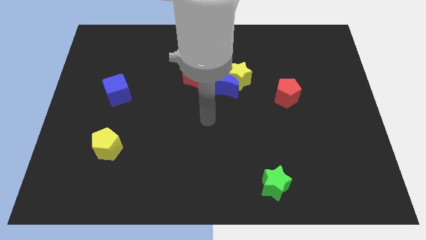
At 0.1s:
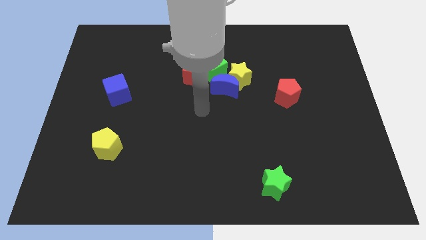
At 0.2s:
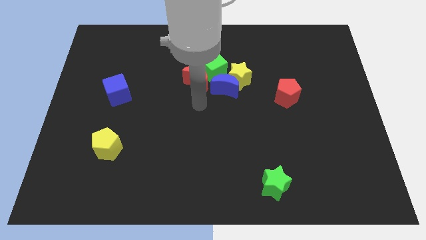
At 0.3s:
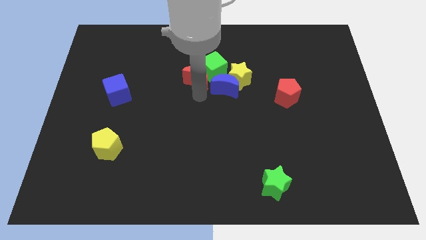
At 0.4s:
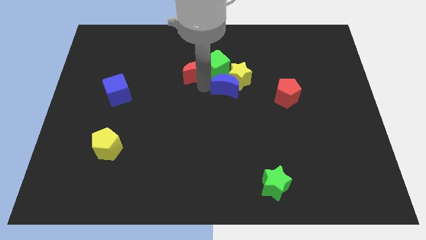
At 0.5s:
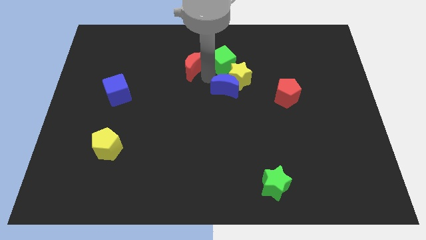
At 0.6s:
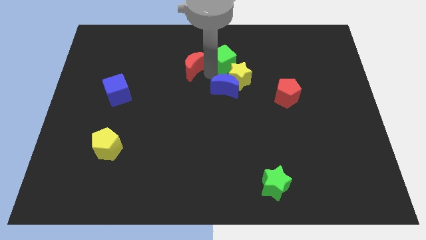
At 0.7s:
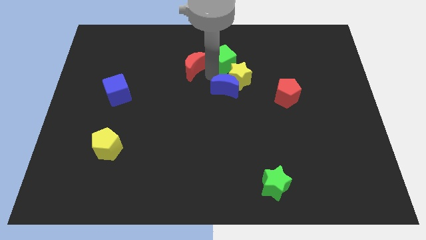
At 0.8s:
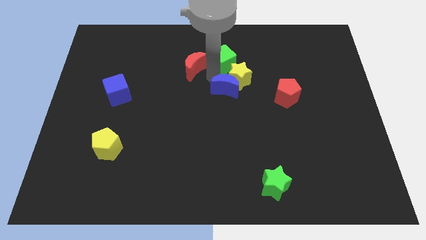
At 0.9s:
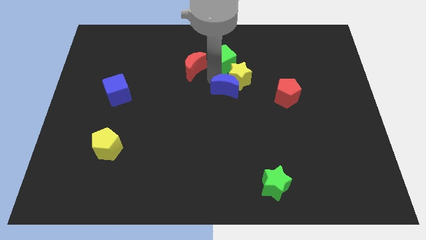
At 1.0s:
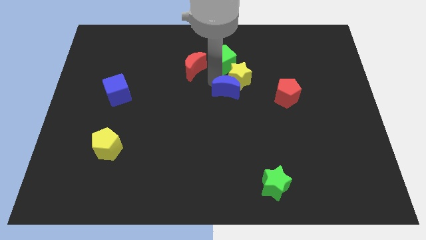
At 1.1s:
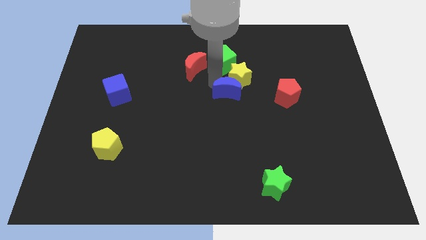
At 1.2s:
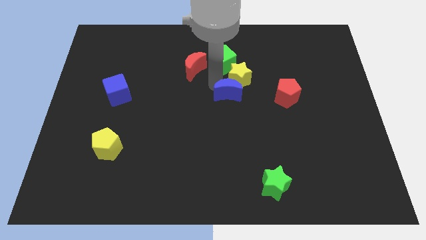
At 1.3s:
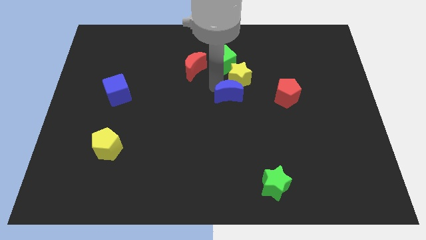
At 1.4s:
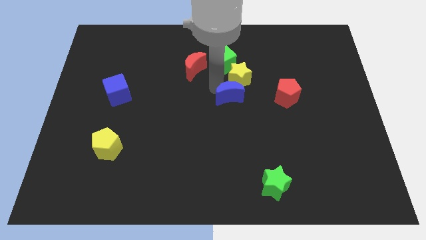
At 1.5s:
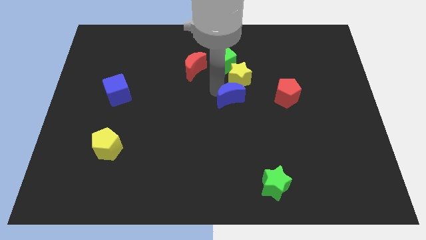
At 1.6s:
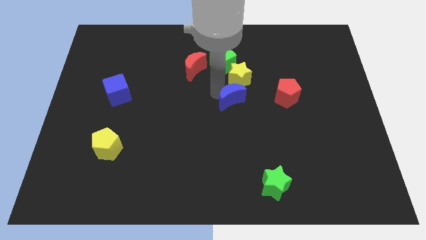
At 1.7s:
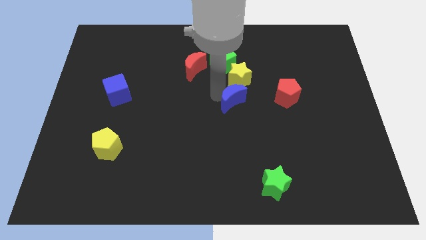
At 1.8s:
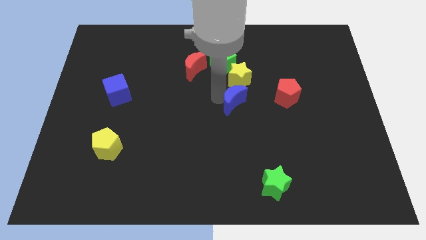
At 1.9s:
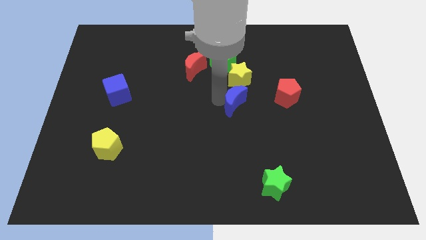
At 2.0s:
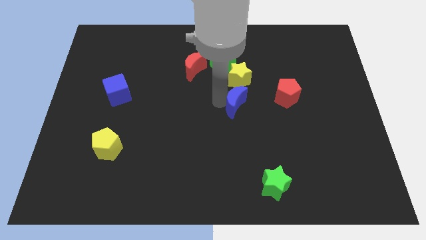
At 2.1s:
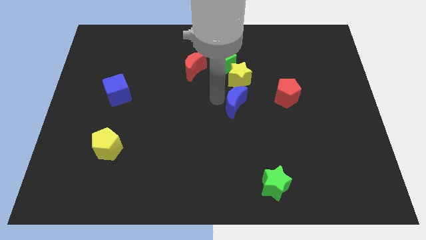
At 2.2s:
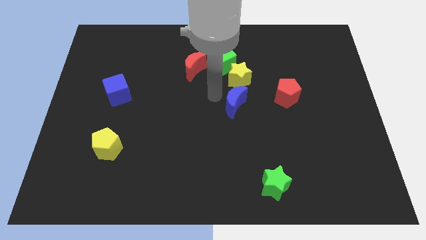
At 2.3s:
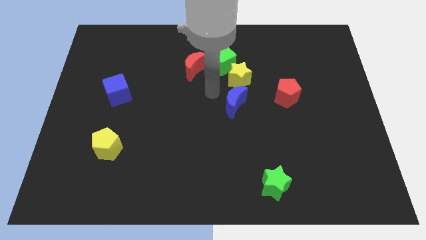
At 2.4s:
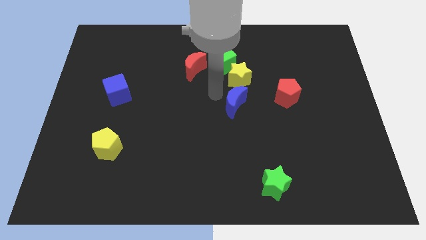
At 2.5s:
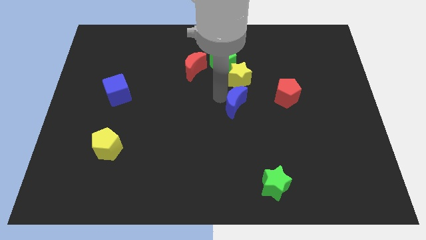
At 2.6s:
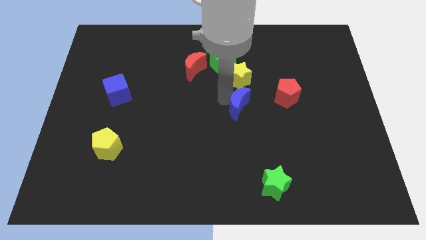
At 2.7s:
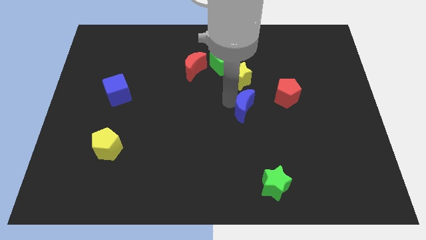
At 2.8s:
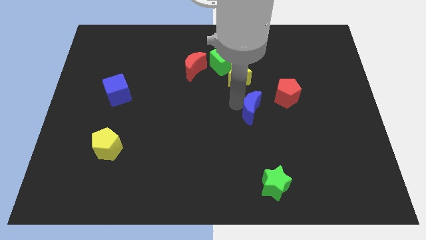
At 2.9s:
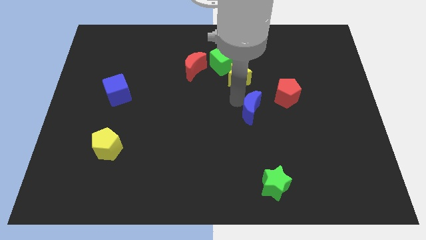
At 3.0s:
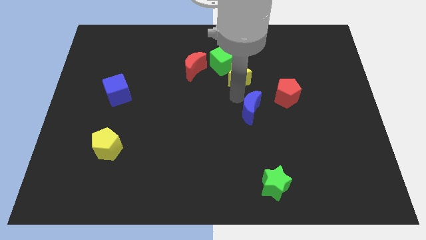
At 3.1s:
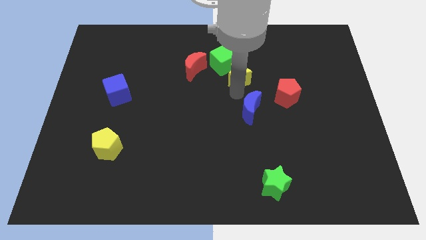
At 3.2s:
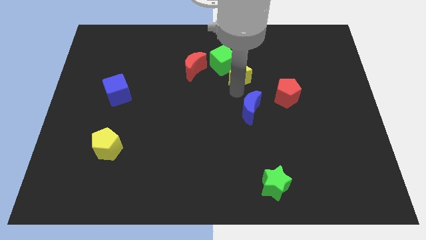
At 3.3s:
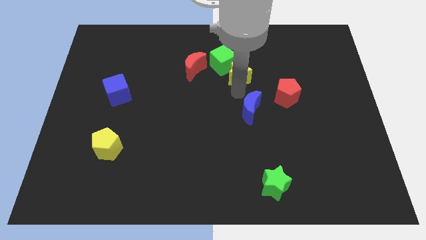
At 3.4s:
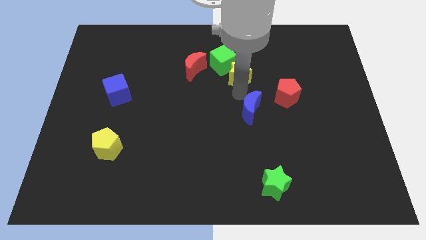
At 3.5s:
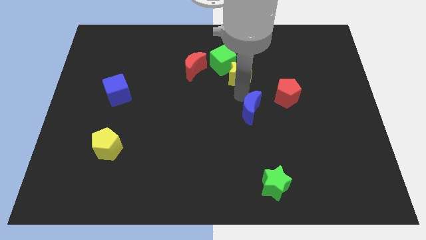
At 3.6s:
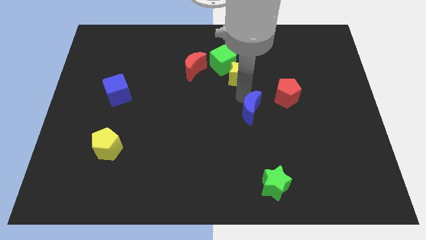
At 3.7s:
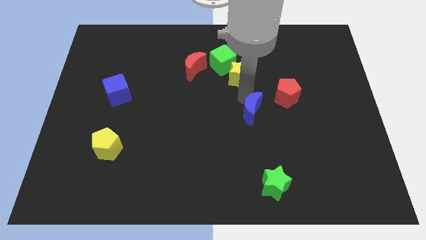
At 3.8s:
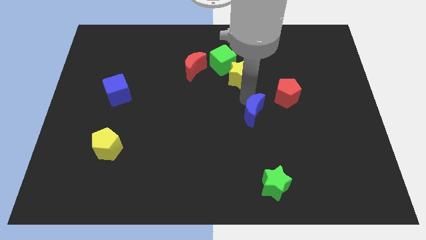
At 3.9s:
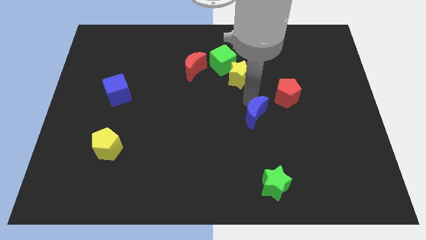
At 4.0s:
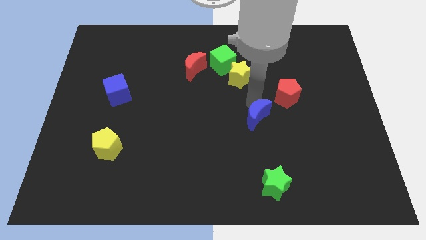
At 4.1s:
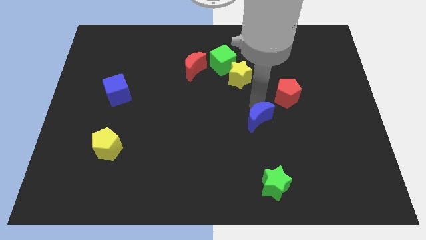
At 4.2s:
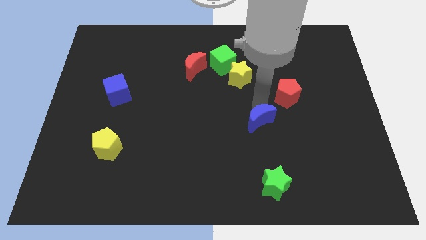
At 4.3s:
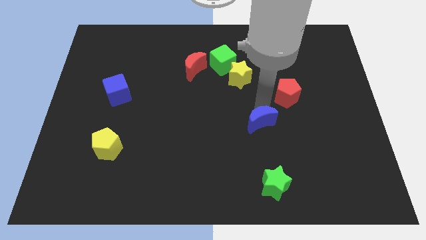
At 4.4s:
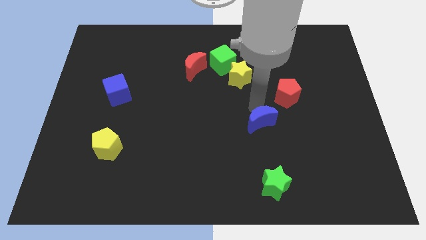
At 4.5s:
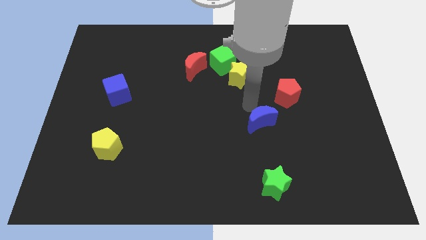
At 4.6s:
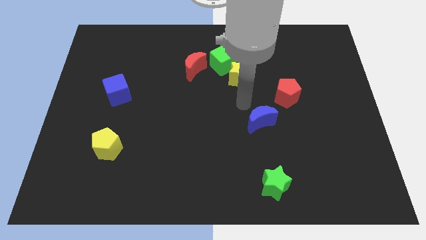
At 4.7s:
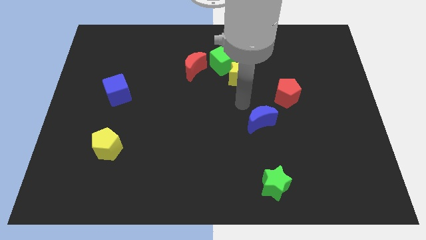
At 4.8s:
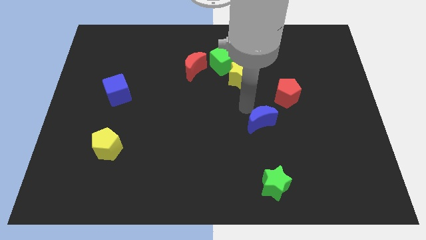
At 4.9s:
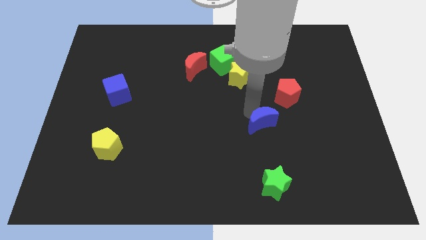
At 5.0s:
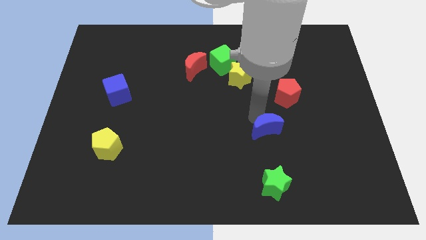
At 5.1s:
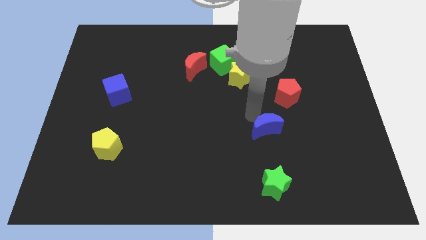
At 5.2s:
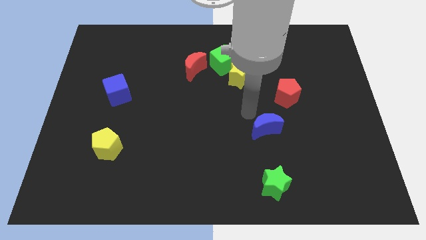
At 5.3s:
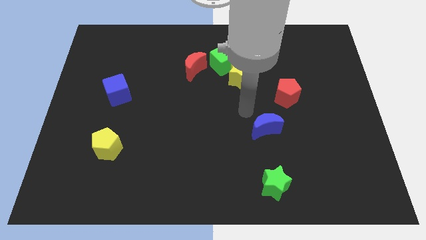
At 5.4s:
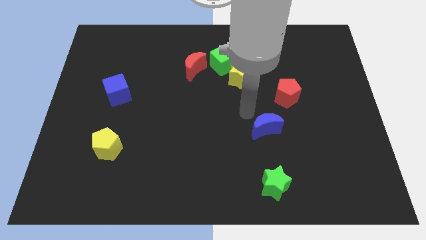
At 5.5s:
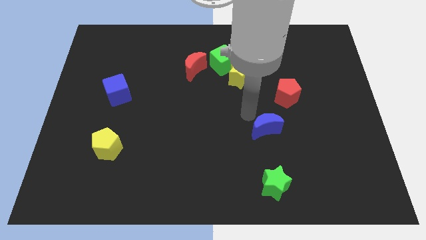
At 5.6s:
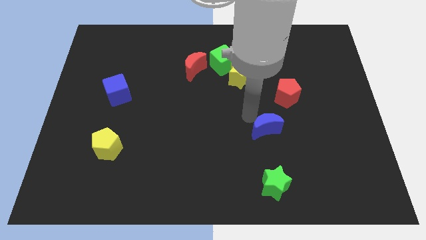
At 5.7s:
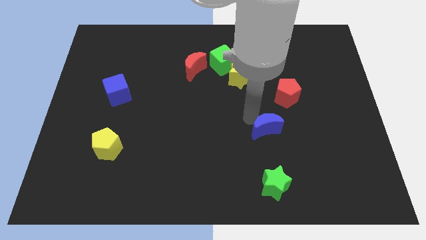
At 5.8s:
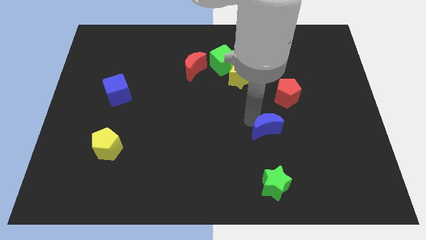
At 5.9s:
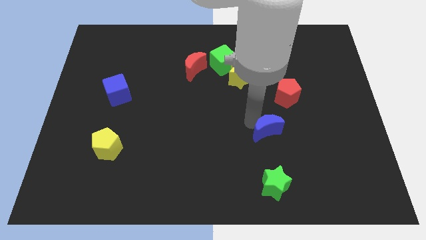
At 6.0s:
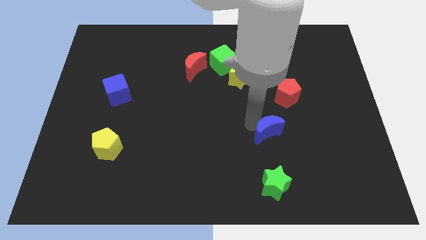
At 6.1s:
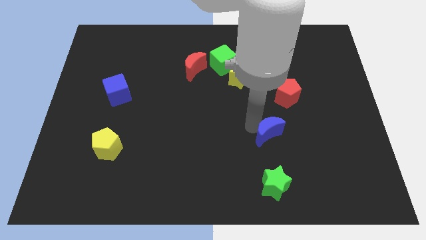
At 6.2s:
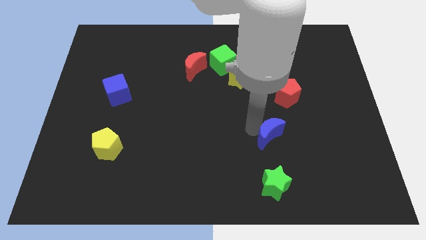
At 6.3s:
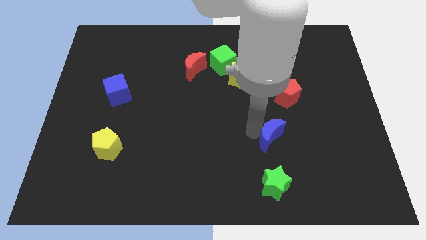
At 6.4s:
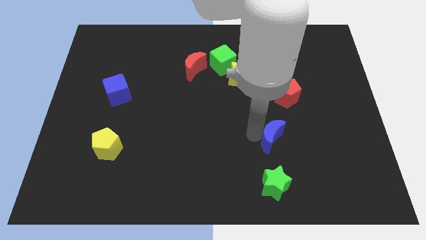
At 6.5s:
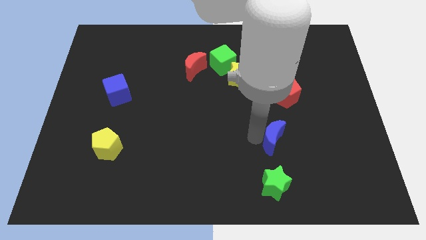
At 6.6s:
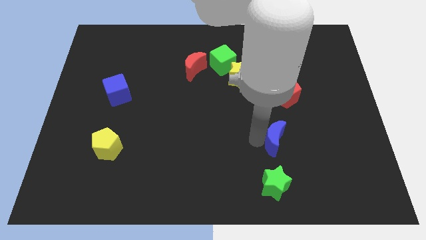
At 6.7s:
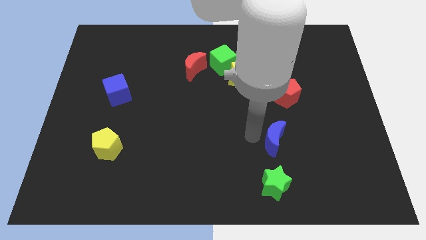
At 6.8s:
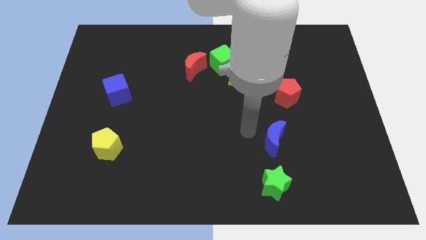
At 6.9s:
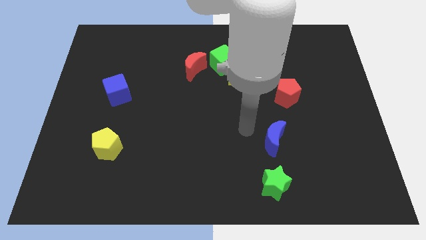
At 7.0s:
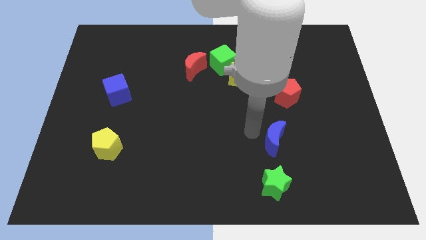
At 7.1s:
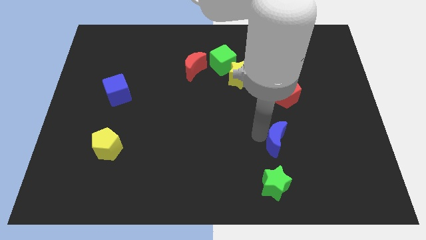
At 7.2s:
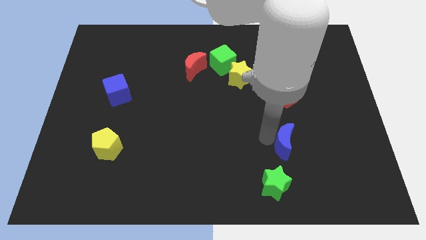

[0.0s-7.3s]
move the blue moon down and to the right

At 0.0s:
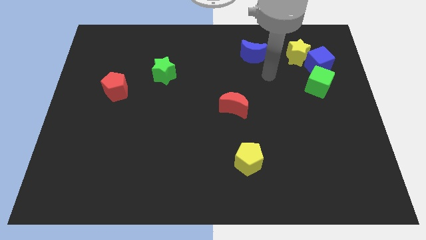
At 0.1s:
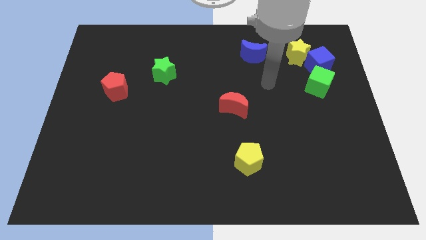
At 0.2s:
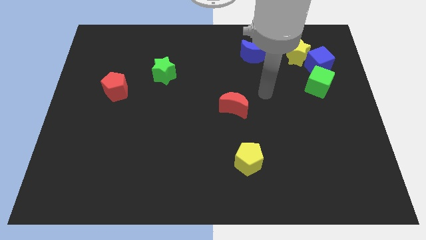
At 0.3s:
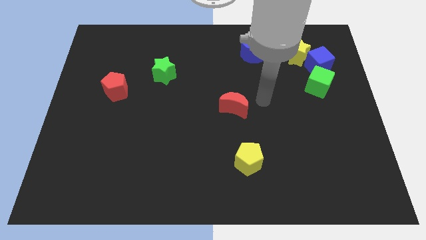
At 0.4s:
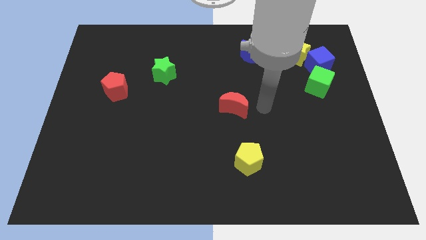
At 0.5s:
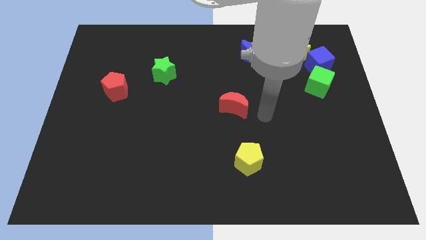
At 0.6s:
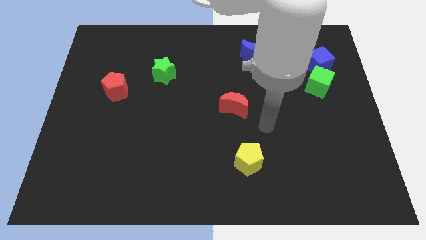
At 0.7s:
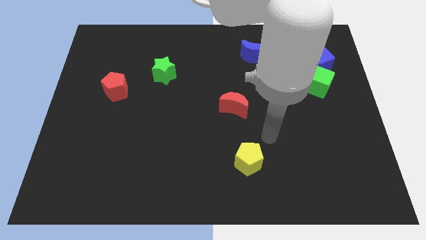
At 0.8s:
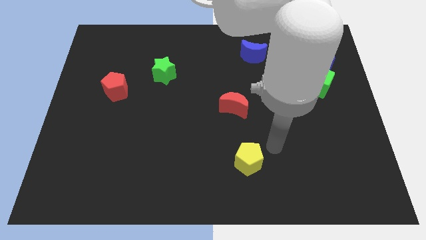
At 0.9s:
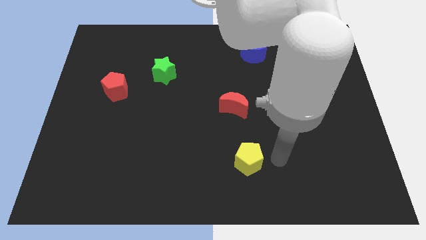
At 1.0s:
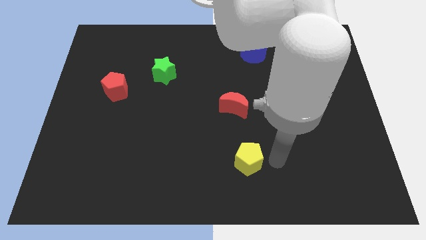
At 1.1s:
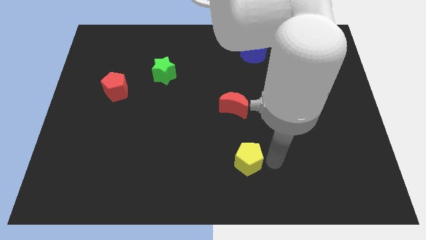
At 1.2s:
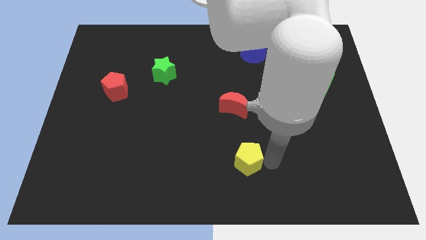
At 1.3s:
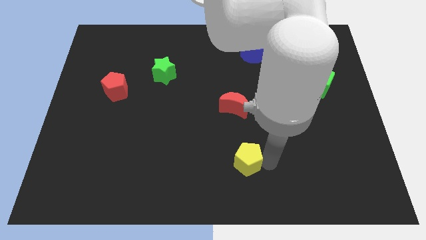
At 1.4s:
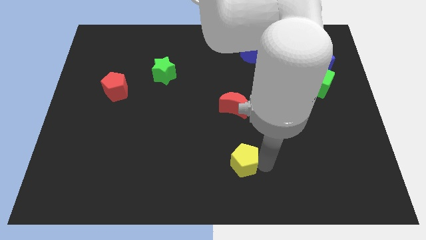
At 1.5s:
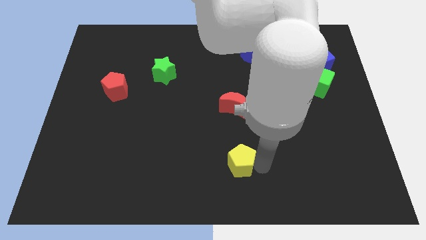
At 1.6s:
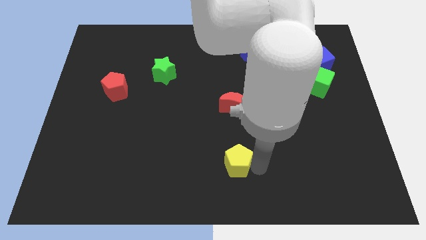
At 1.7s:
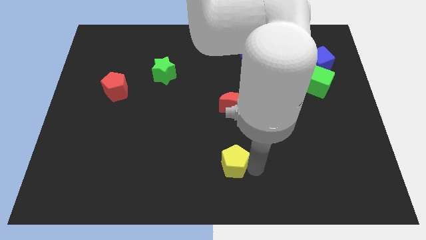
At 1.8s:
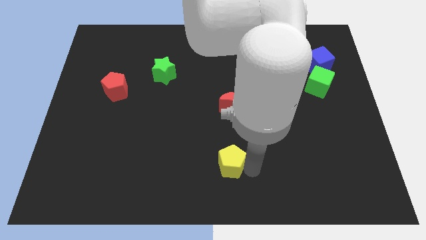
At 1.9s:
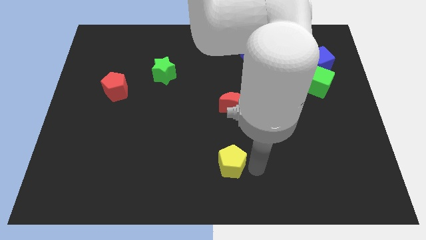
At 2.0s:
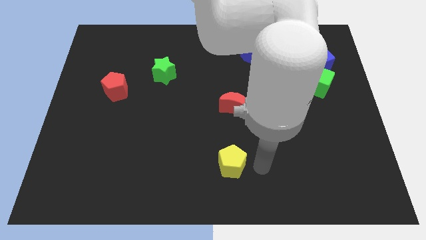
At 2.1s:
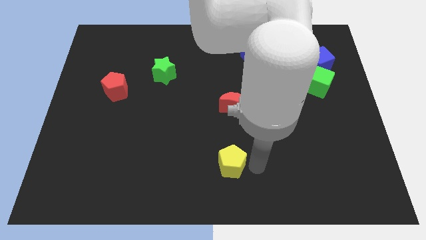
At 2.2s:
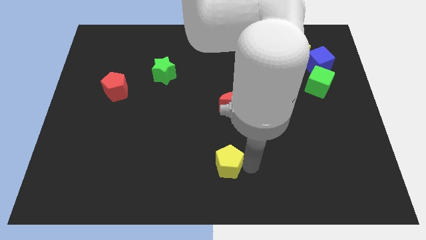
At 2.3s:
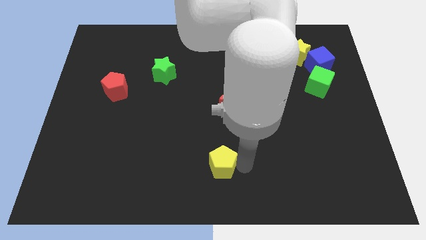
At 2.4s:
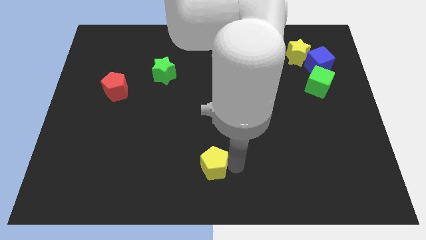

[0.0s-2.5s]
move the yellow pentagon a little bit left
